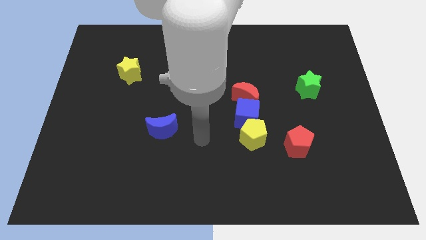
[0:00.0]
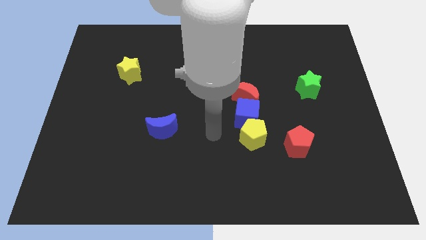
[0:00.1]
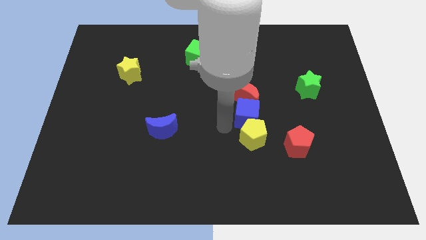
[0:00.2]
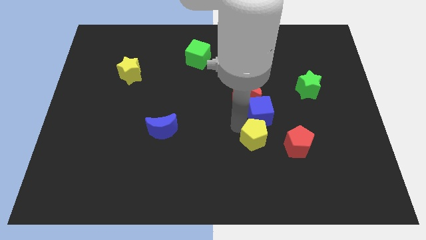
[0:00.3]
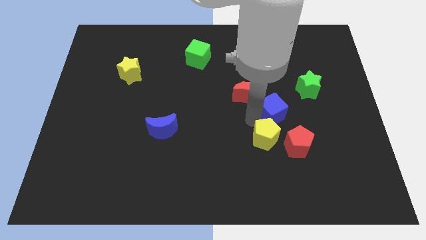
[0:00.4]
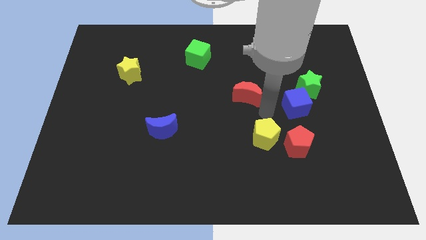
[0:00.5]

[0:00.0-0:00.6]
separate the red moon from the blue cube

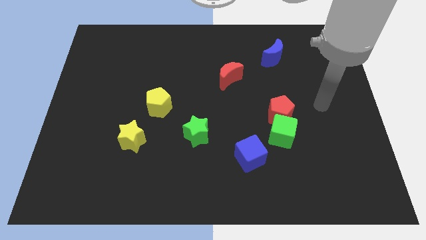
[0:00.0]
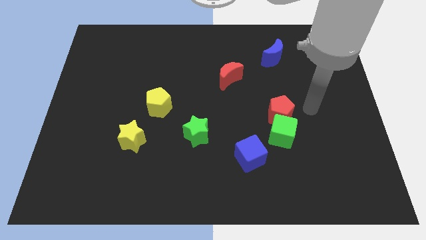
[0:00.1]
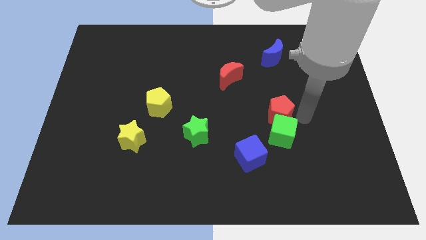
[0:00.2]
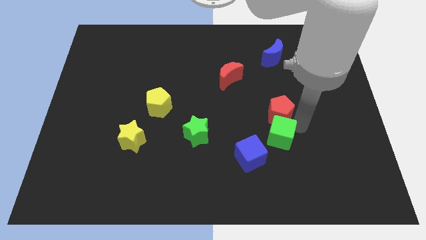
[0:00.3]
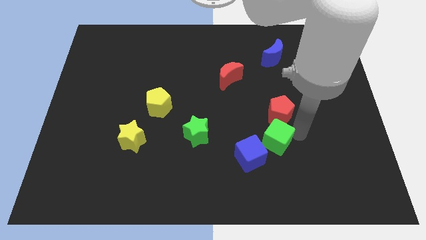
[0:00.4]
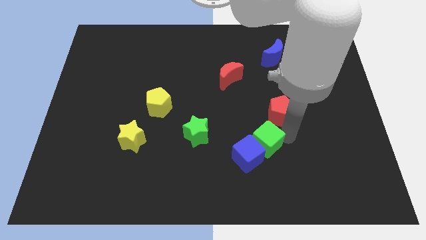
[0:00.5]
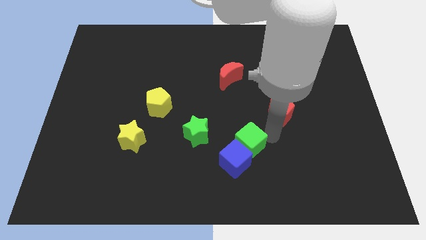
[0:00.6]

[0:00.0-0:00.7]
move the red pentagon away from the green cube

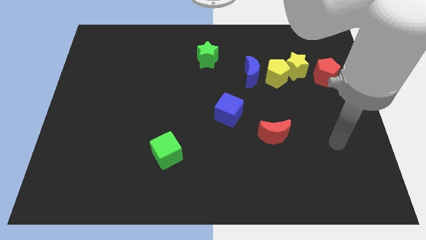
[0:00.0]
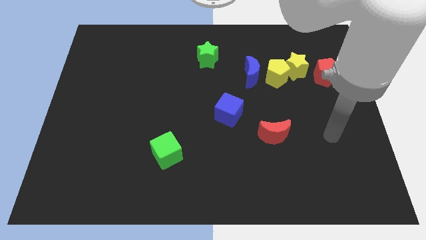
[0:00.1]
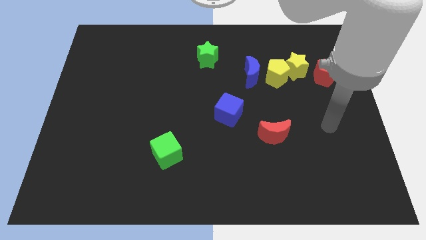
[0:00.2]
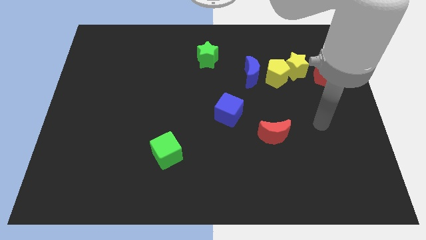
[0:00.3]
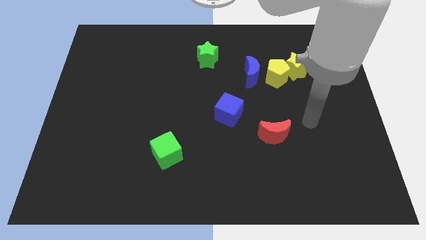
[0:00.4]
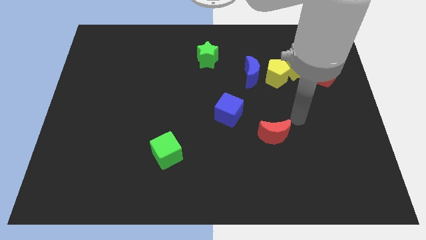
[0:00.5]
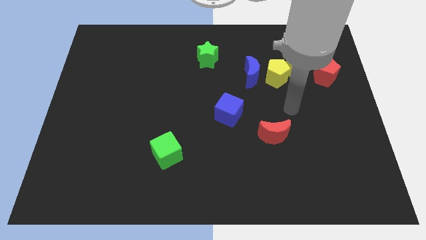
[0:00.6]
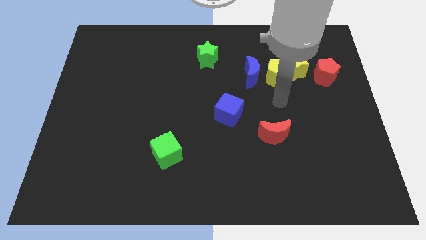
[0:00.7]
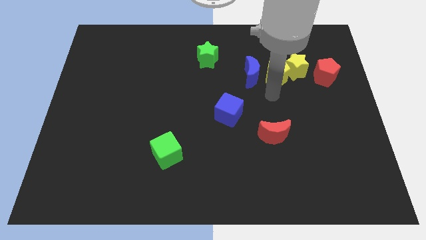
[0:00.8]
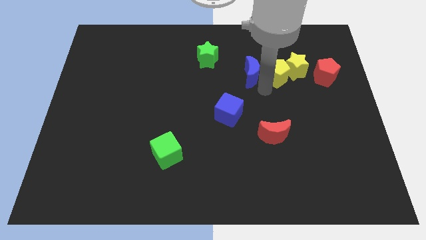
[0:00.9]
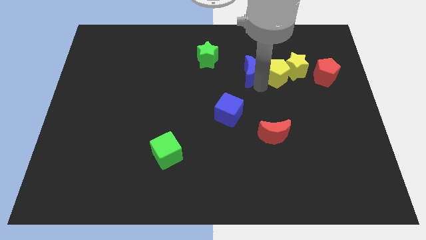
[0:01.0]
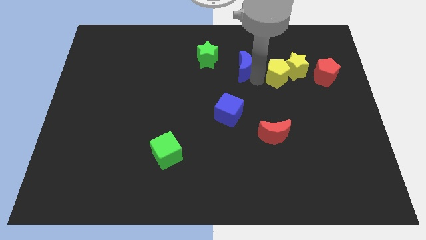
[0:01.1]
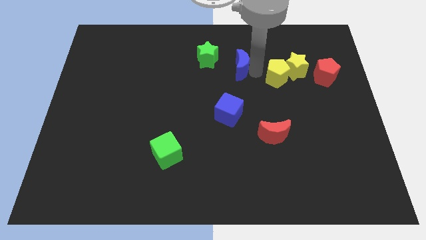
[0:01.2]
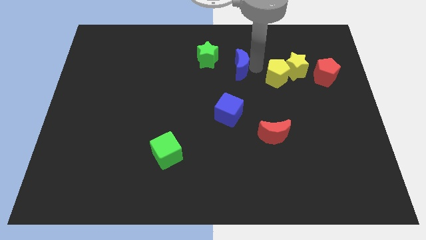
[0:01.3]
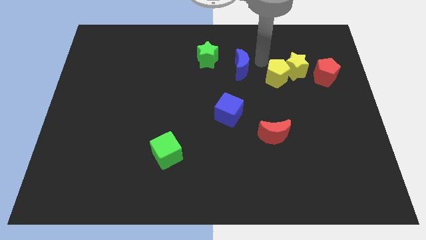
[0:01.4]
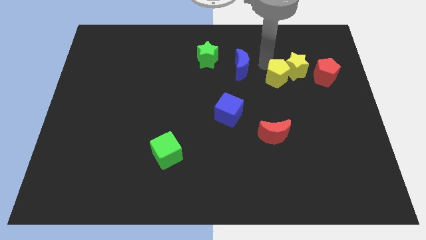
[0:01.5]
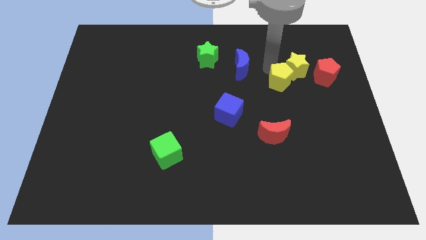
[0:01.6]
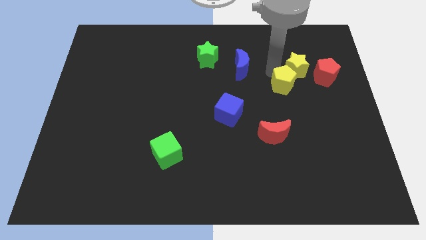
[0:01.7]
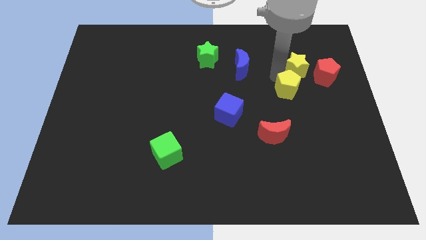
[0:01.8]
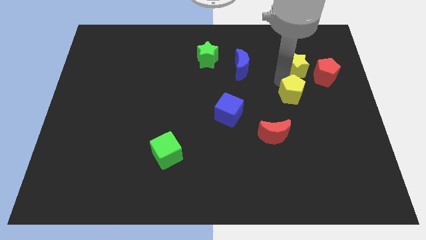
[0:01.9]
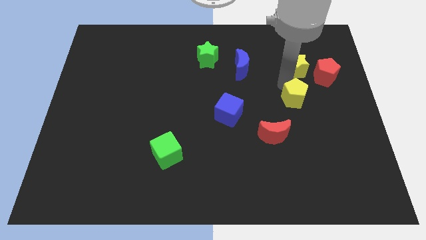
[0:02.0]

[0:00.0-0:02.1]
separate the yellow pentagon from the yellow star and blue moon

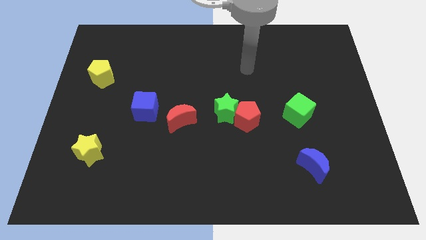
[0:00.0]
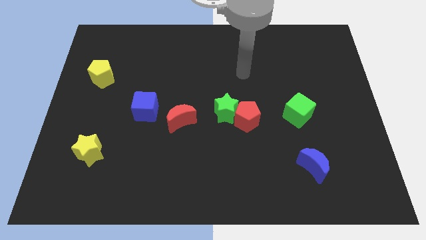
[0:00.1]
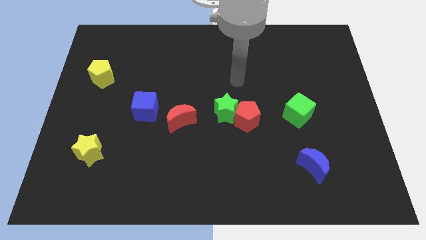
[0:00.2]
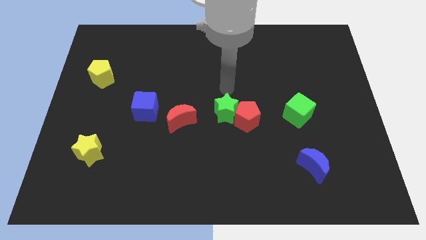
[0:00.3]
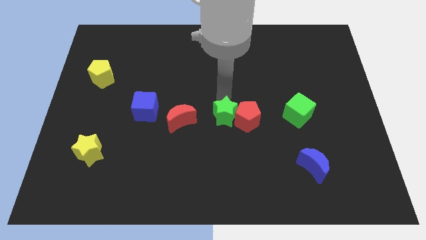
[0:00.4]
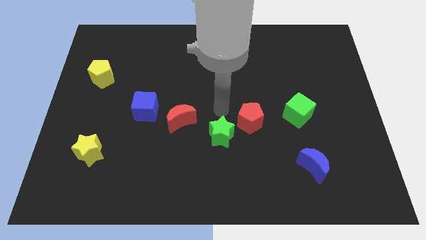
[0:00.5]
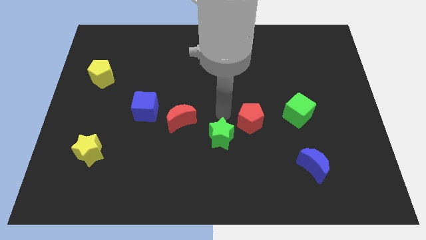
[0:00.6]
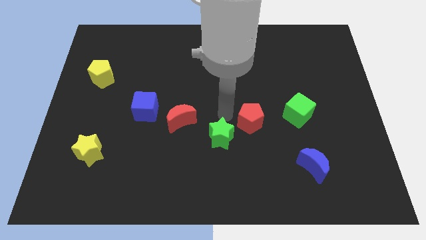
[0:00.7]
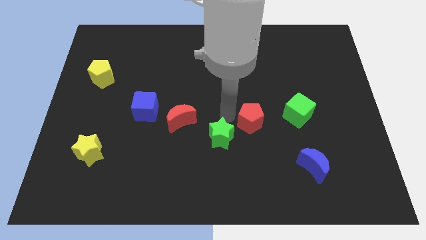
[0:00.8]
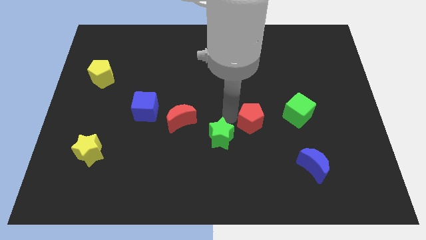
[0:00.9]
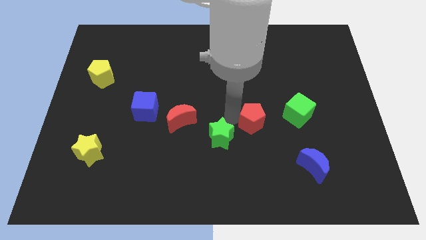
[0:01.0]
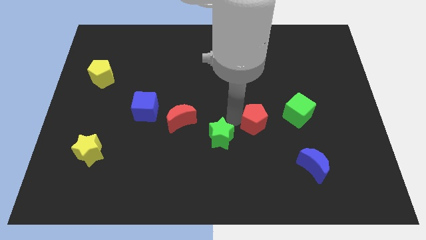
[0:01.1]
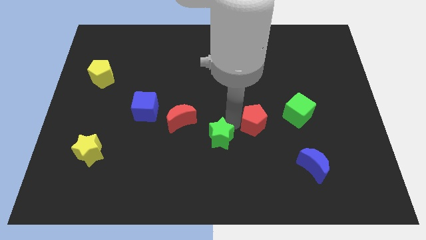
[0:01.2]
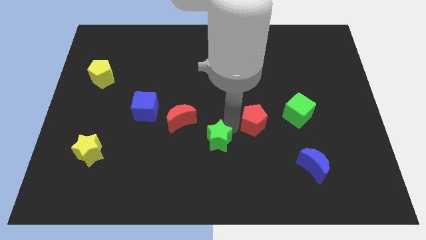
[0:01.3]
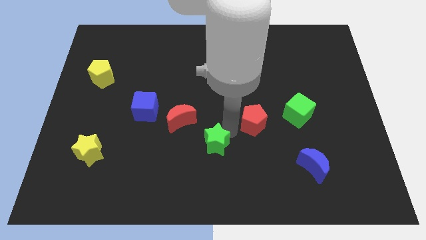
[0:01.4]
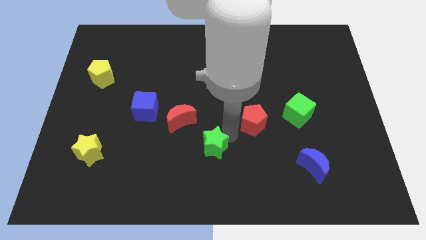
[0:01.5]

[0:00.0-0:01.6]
separate the red pentagon from the green star

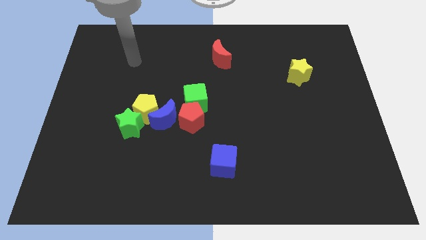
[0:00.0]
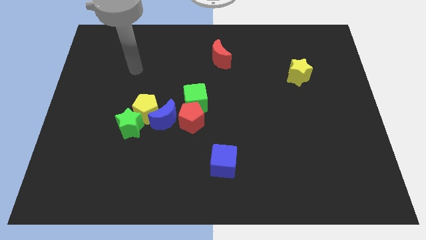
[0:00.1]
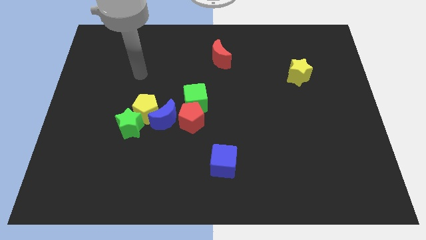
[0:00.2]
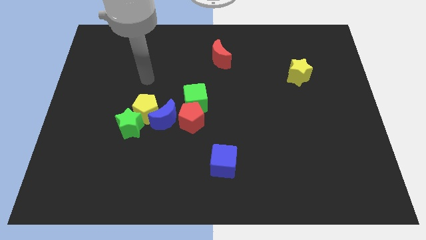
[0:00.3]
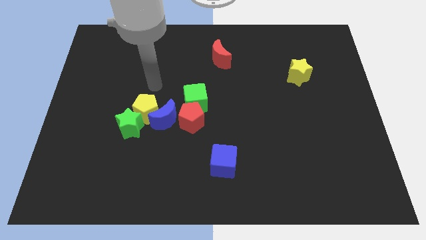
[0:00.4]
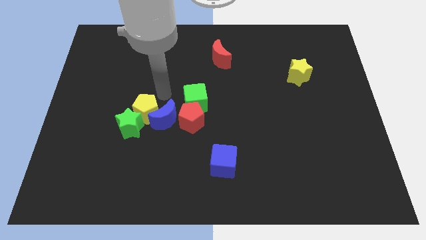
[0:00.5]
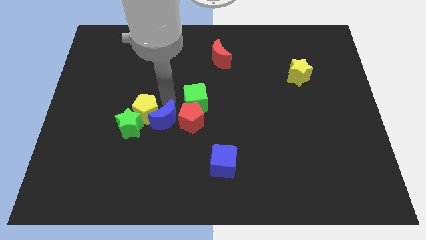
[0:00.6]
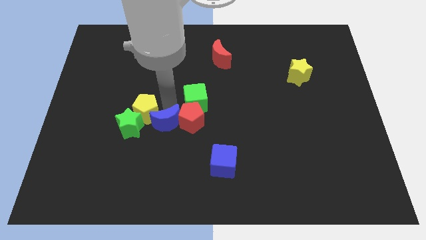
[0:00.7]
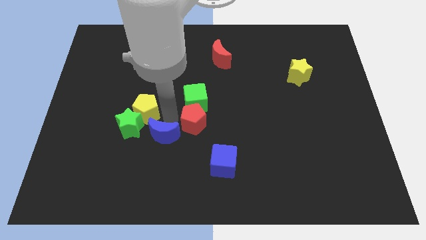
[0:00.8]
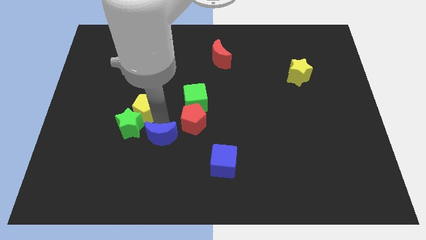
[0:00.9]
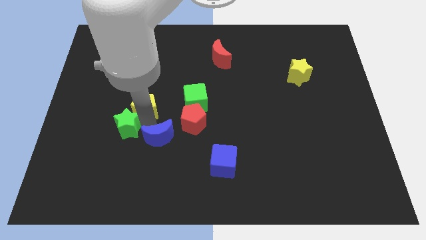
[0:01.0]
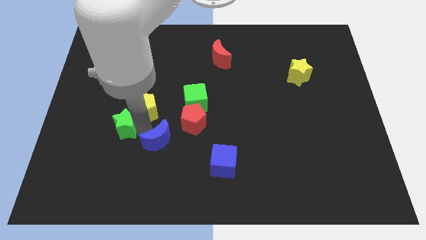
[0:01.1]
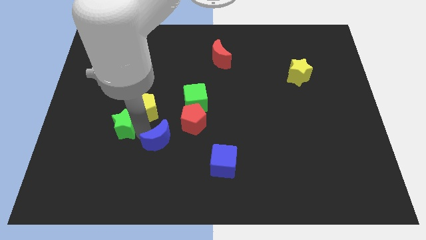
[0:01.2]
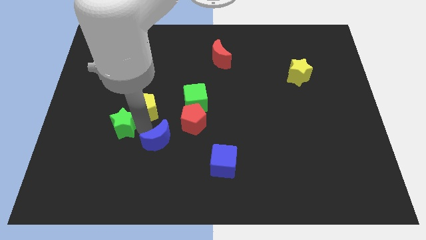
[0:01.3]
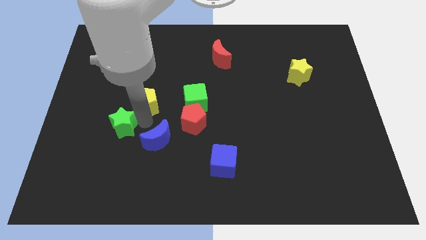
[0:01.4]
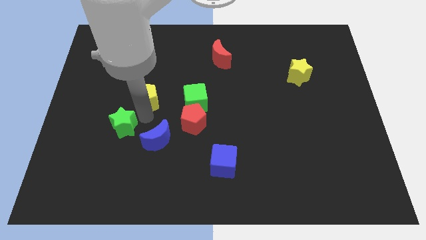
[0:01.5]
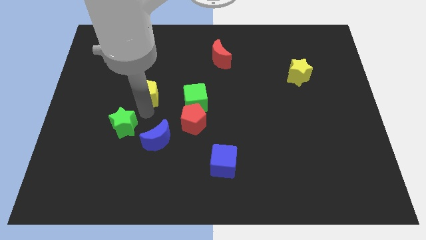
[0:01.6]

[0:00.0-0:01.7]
move the yellow pentagon away from the blue moon and green star

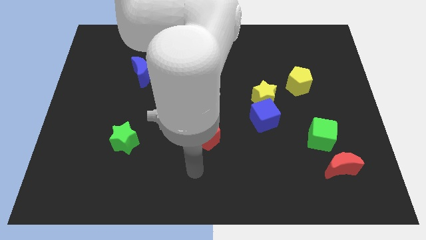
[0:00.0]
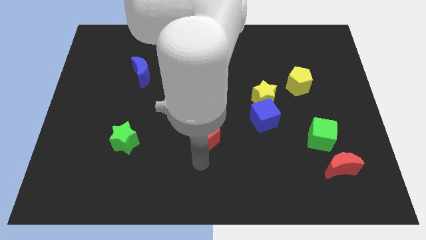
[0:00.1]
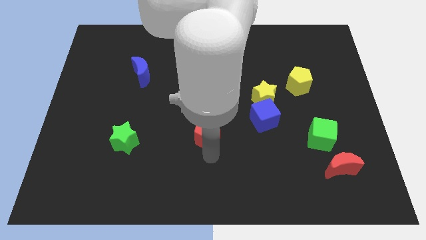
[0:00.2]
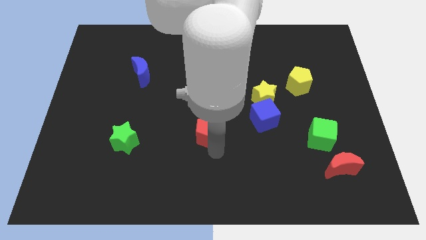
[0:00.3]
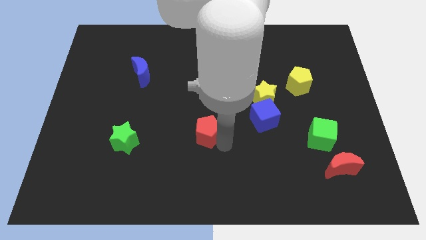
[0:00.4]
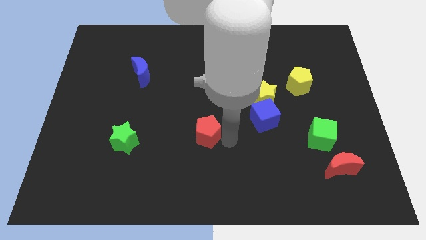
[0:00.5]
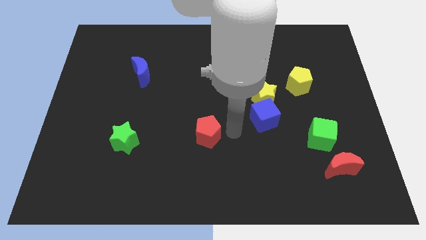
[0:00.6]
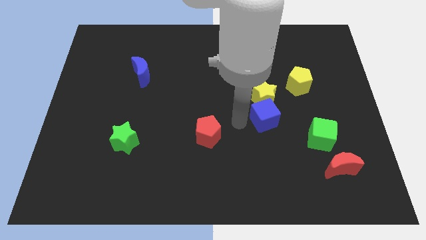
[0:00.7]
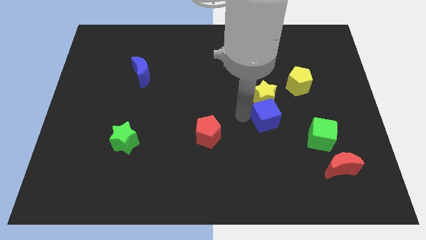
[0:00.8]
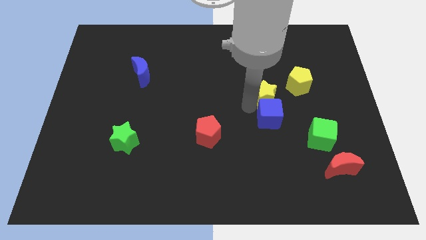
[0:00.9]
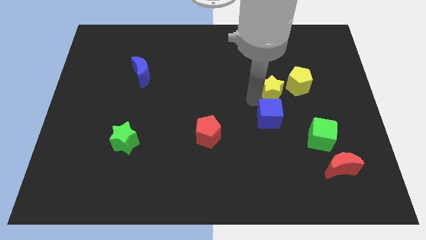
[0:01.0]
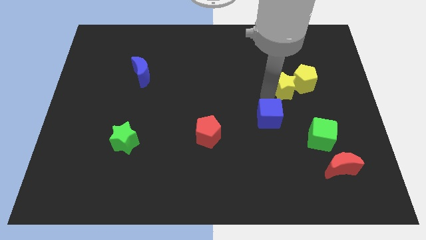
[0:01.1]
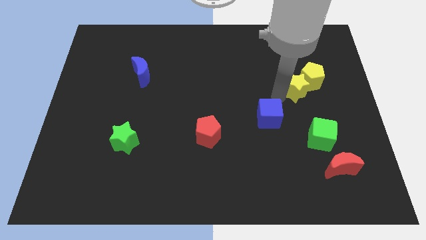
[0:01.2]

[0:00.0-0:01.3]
pull the blue cube apart from the yellow star

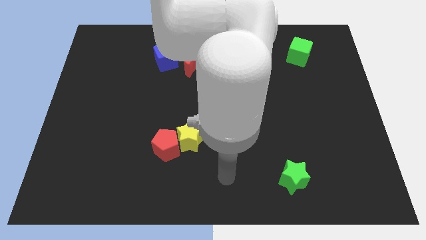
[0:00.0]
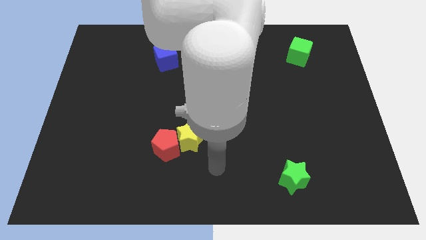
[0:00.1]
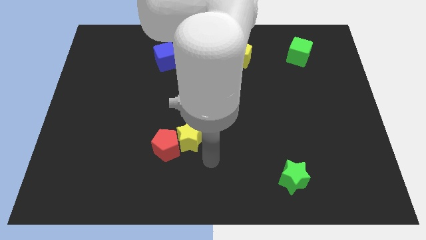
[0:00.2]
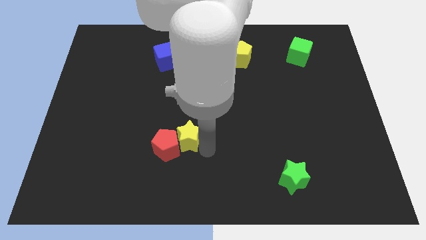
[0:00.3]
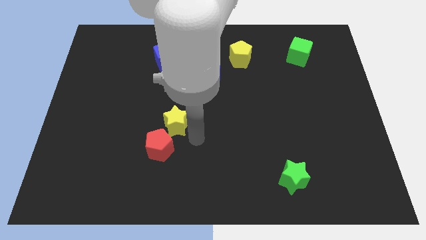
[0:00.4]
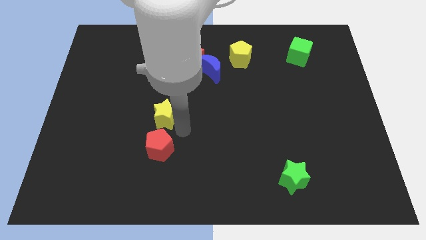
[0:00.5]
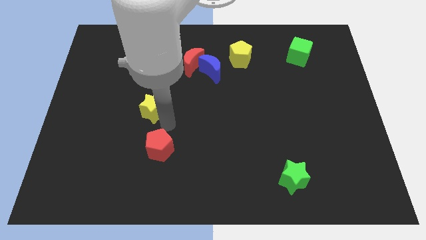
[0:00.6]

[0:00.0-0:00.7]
separate the red pentagon from the yellow star

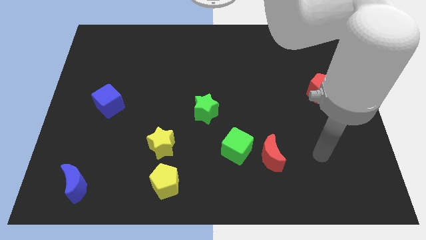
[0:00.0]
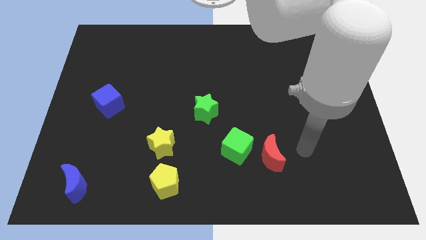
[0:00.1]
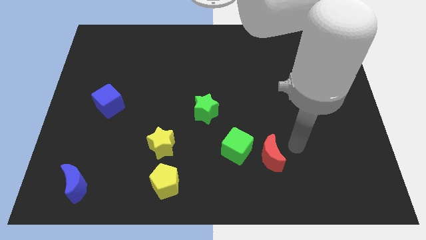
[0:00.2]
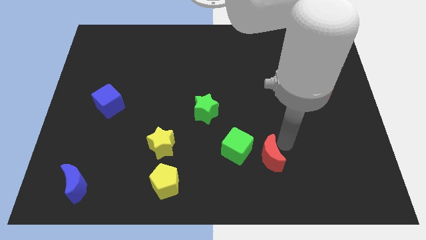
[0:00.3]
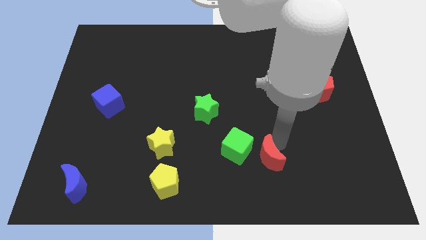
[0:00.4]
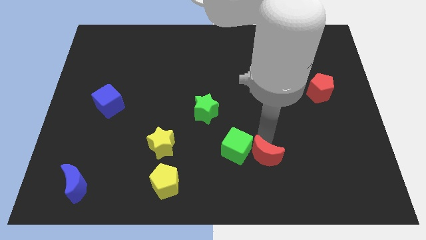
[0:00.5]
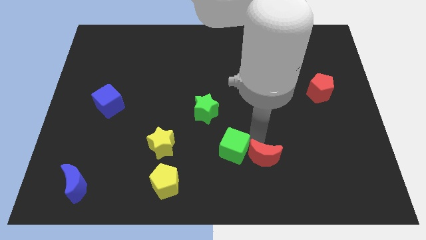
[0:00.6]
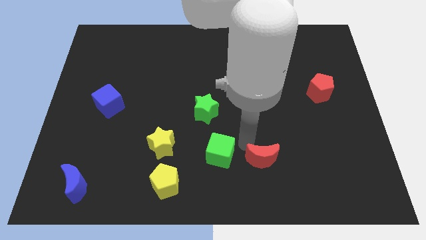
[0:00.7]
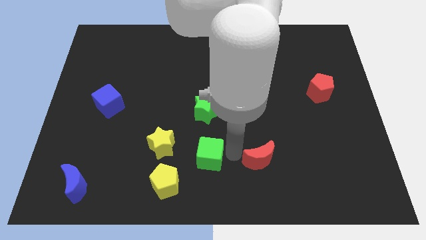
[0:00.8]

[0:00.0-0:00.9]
move the red moon away from the green cube
